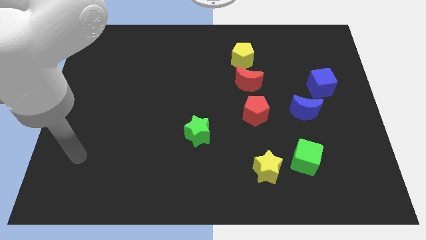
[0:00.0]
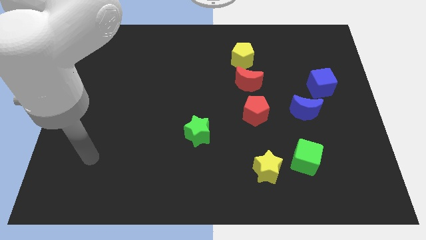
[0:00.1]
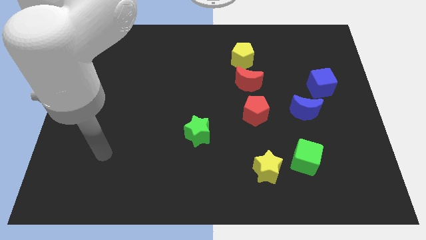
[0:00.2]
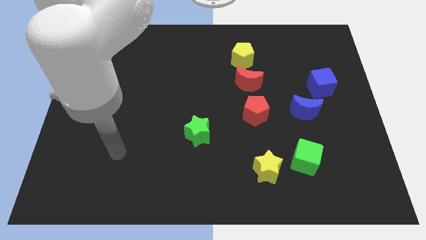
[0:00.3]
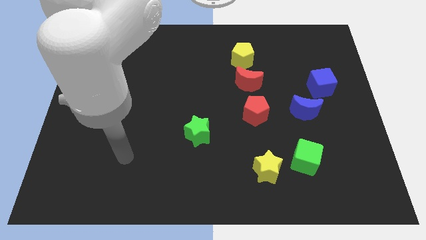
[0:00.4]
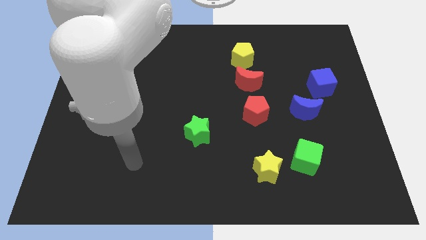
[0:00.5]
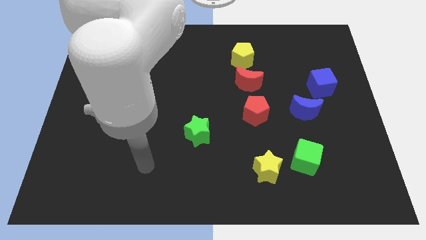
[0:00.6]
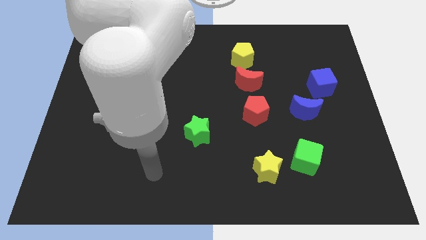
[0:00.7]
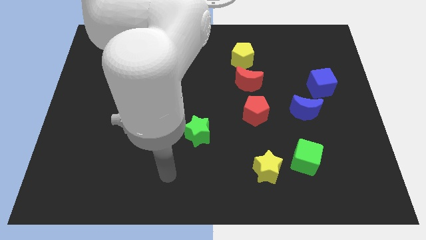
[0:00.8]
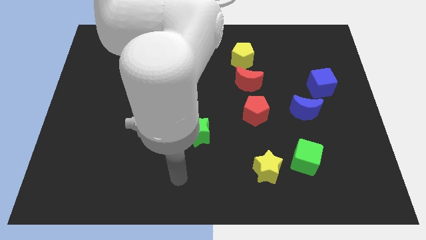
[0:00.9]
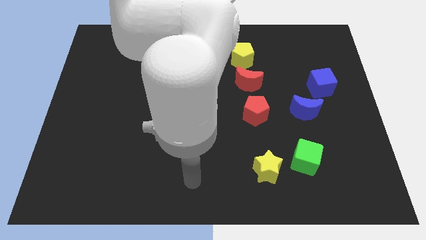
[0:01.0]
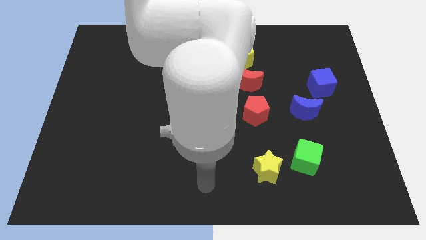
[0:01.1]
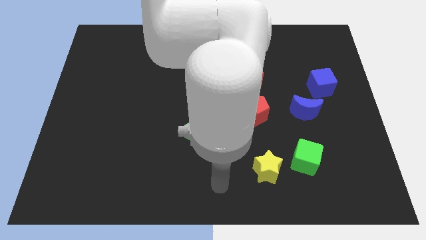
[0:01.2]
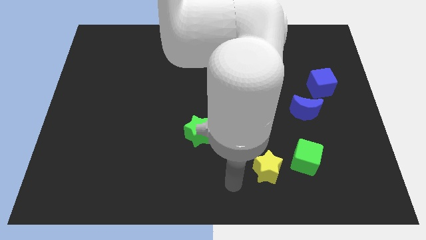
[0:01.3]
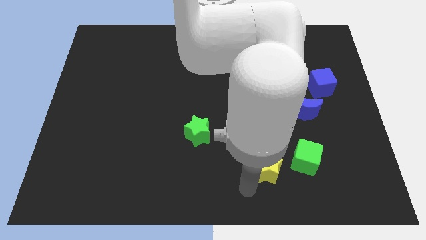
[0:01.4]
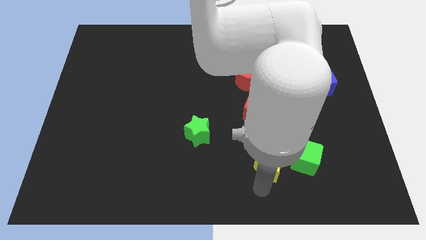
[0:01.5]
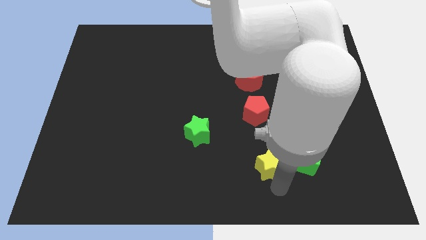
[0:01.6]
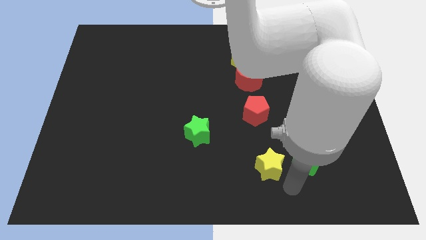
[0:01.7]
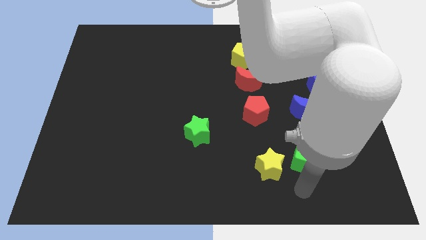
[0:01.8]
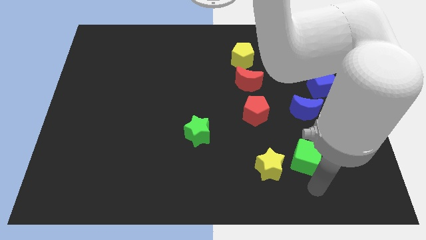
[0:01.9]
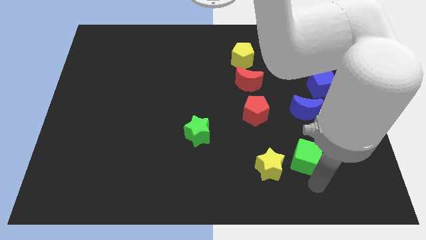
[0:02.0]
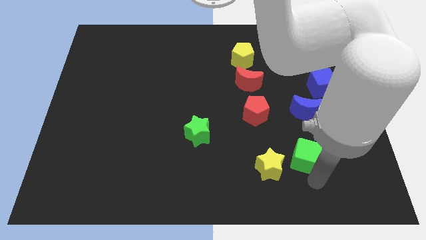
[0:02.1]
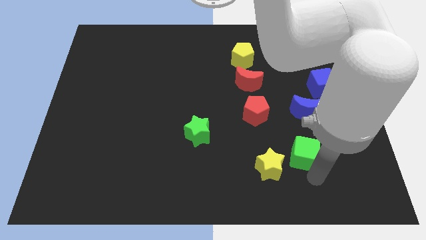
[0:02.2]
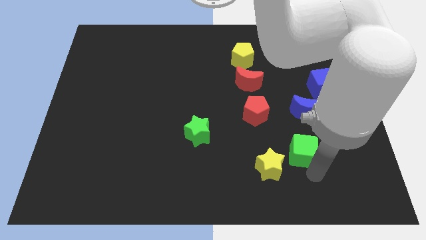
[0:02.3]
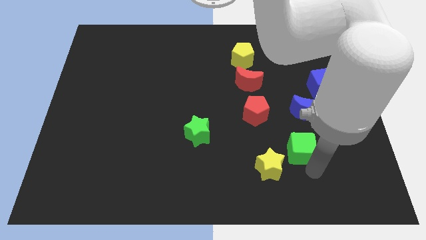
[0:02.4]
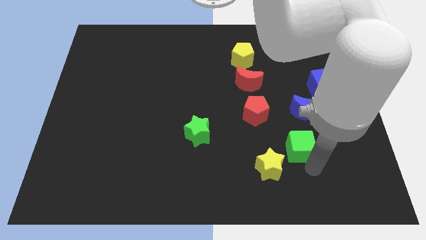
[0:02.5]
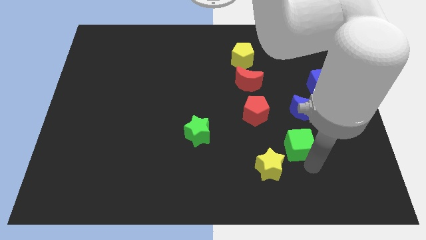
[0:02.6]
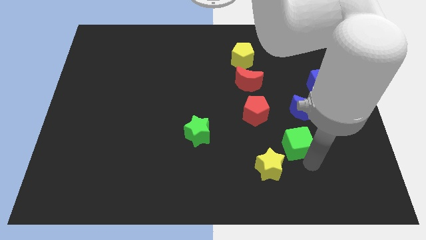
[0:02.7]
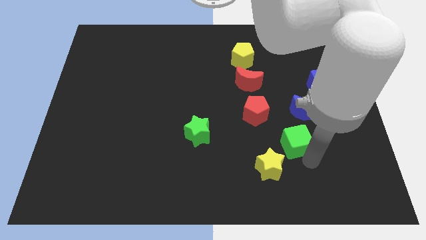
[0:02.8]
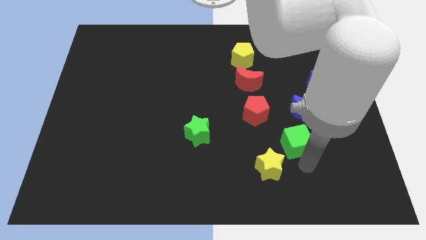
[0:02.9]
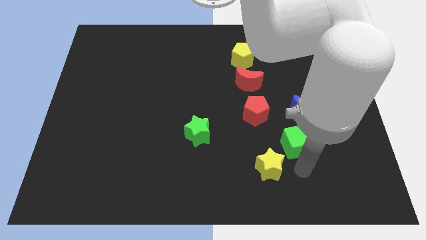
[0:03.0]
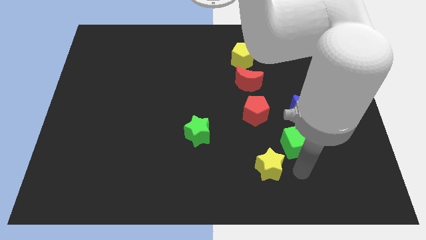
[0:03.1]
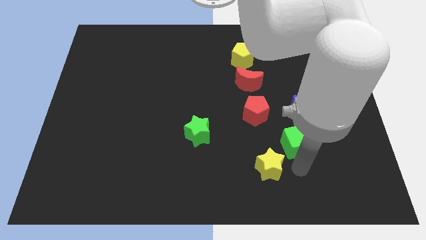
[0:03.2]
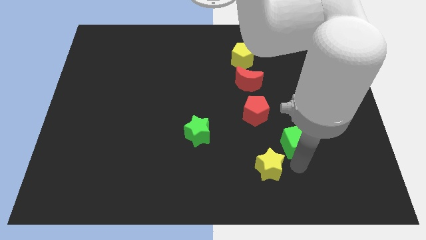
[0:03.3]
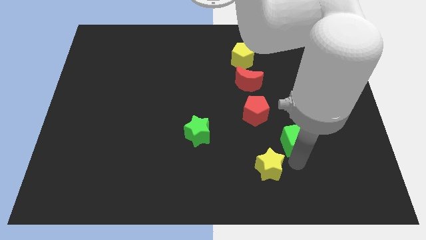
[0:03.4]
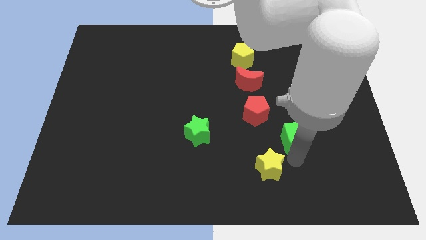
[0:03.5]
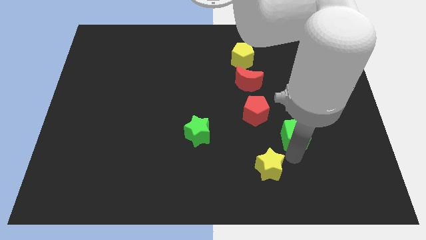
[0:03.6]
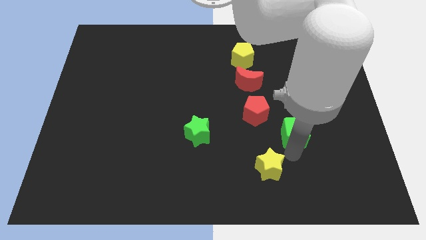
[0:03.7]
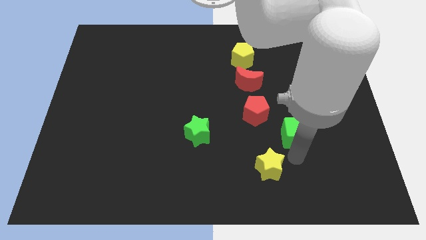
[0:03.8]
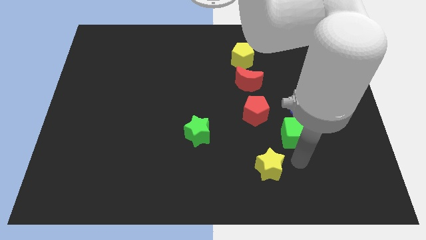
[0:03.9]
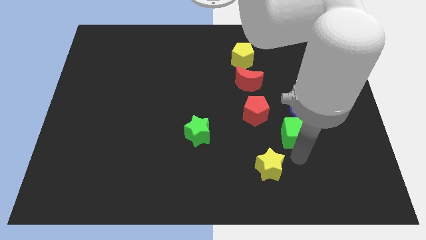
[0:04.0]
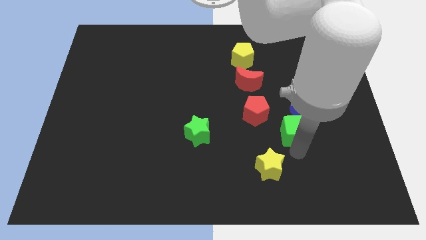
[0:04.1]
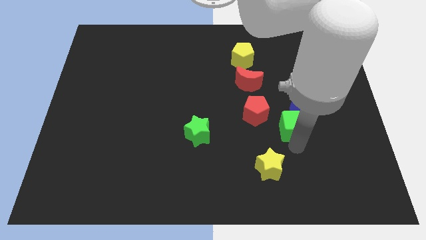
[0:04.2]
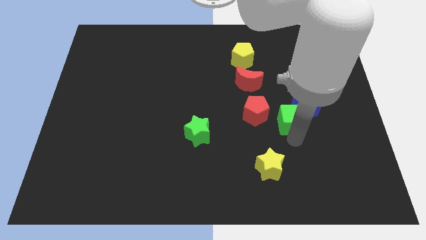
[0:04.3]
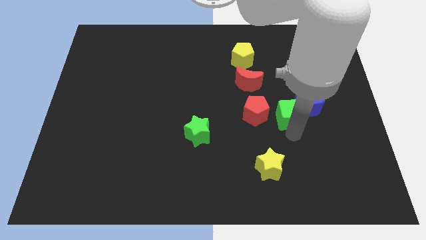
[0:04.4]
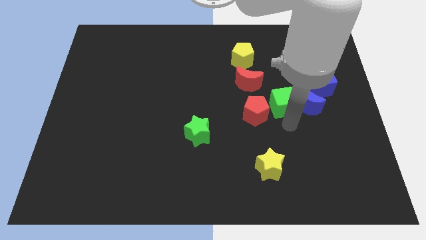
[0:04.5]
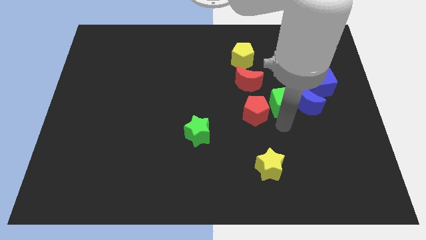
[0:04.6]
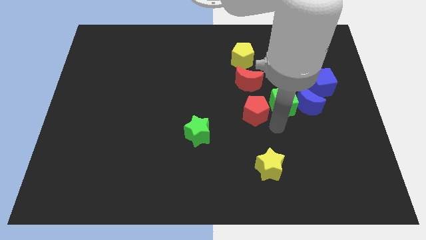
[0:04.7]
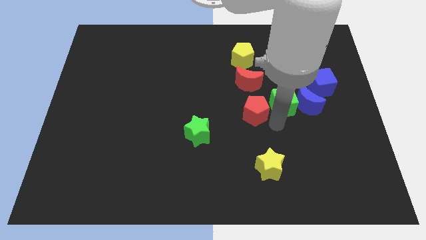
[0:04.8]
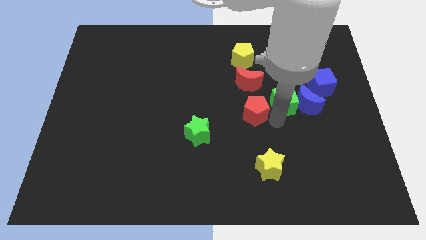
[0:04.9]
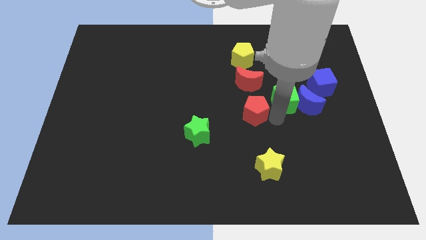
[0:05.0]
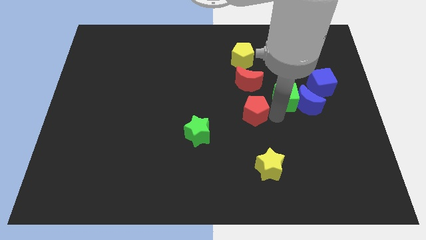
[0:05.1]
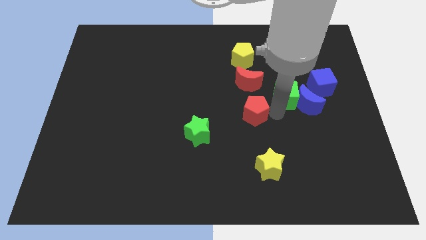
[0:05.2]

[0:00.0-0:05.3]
slide the green cube right of the red moon
